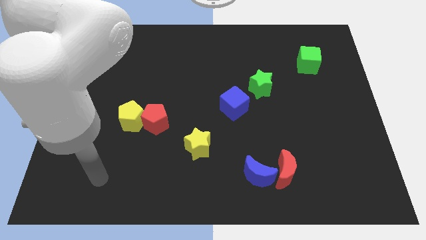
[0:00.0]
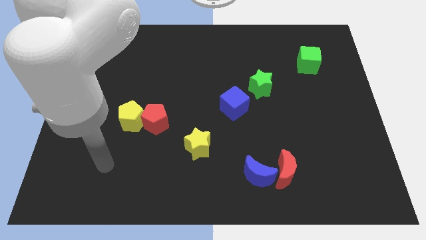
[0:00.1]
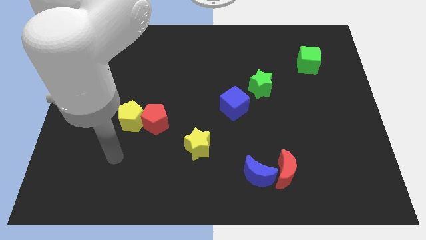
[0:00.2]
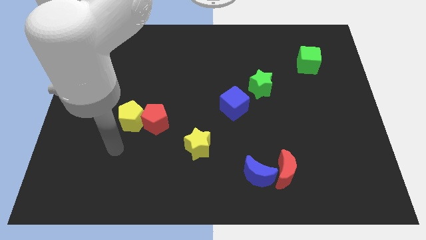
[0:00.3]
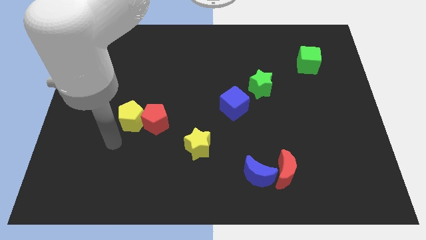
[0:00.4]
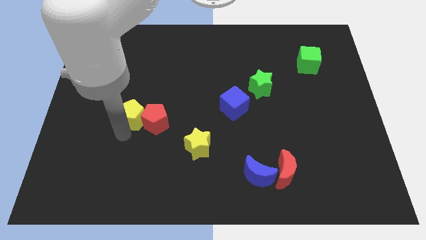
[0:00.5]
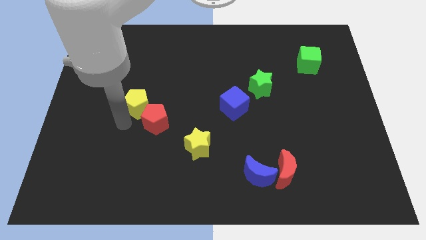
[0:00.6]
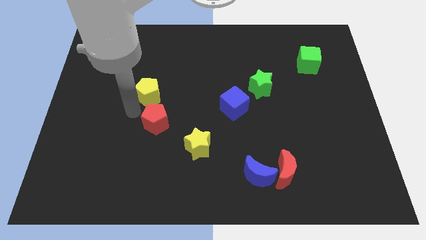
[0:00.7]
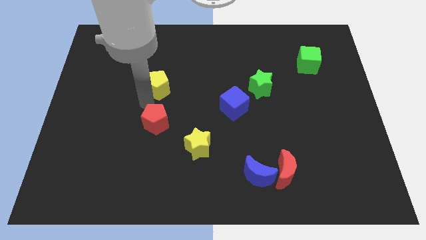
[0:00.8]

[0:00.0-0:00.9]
separate the red pentagon from the yellow pentagon

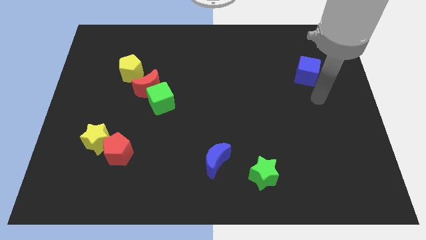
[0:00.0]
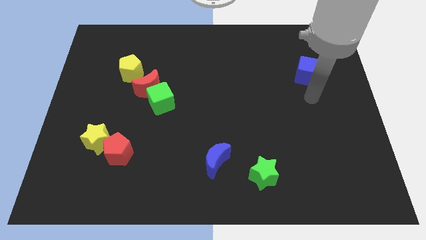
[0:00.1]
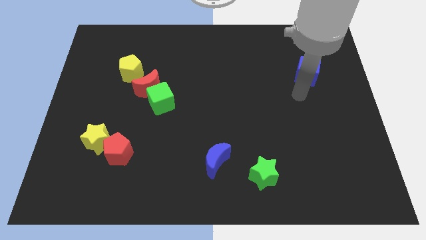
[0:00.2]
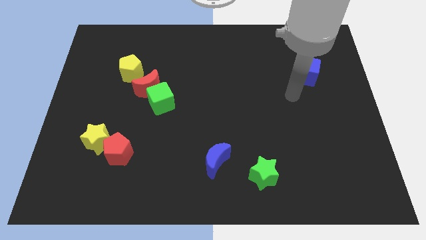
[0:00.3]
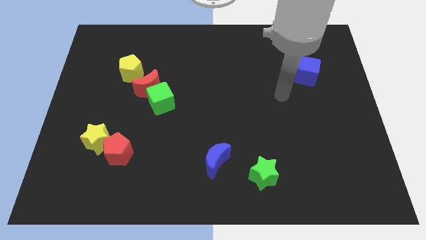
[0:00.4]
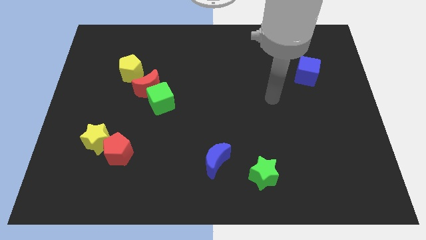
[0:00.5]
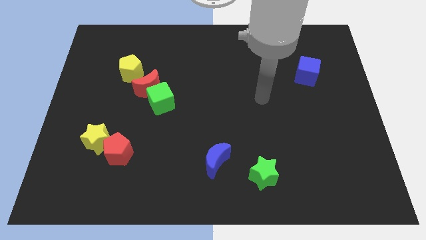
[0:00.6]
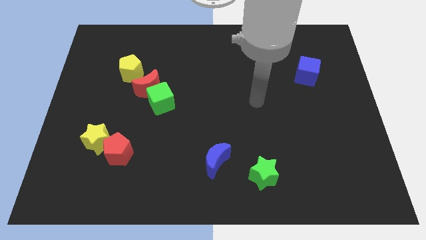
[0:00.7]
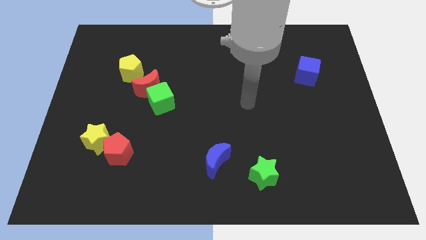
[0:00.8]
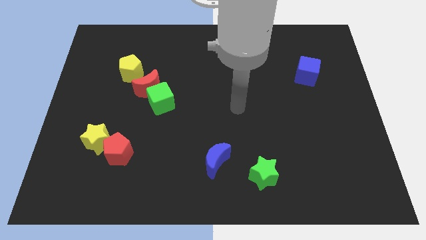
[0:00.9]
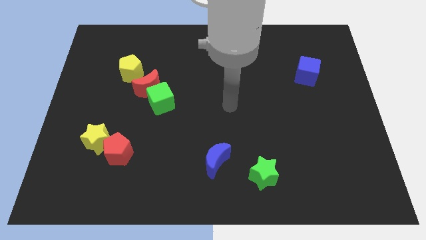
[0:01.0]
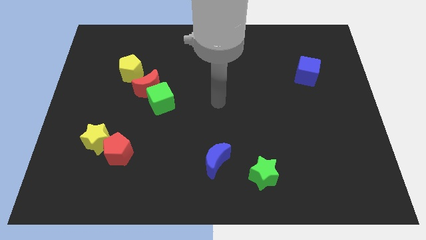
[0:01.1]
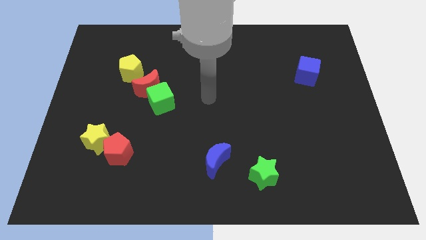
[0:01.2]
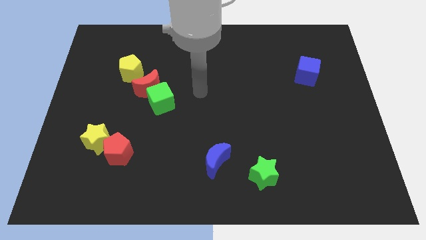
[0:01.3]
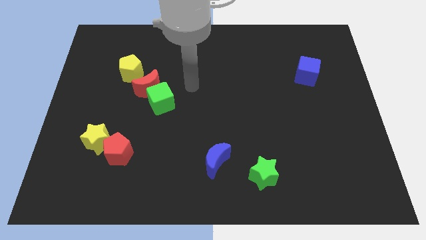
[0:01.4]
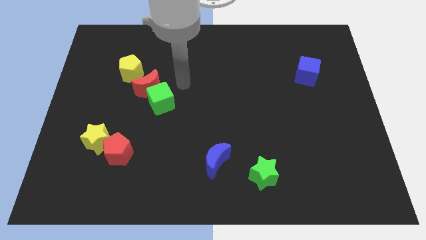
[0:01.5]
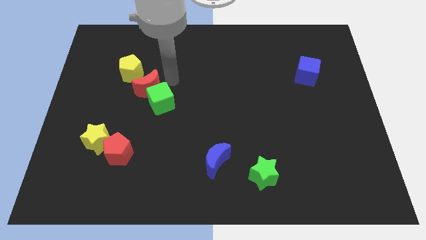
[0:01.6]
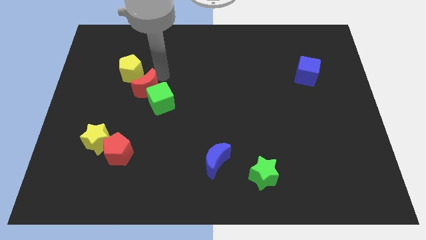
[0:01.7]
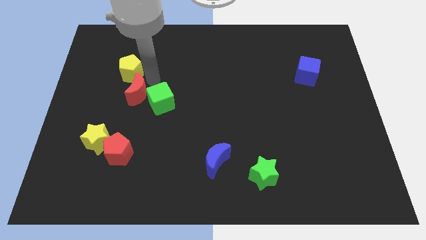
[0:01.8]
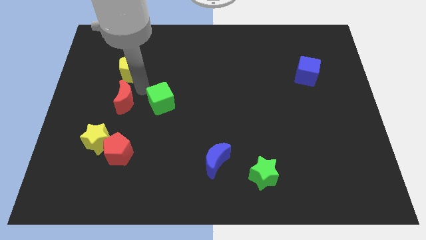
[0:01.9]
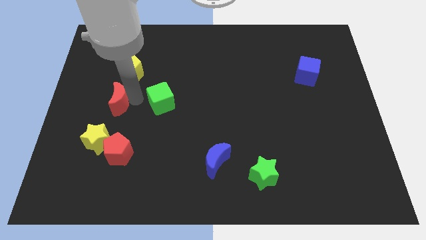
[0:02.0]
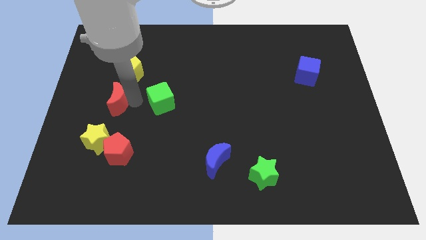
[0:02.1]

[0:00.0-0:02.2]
move the green cube away from the red moon

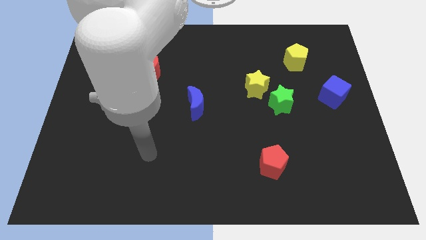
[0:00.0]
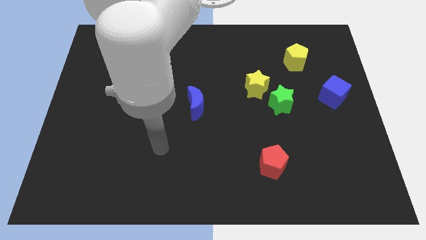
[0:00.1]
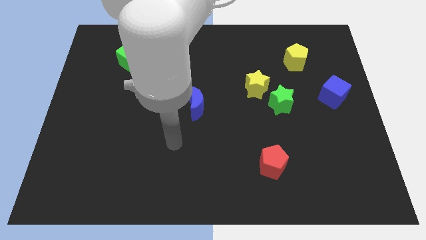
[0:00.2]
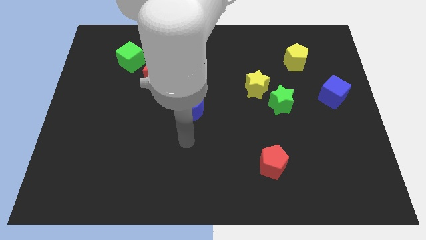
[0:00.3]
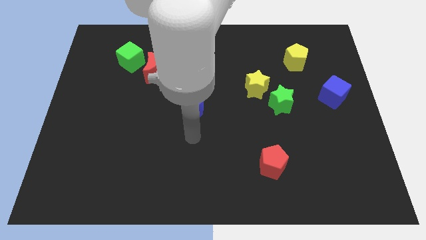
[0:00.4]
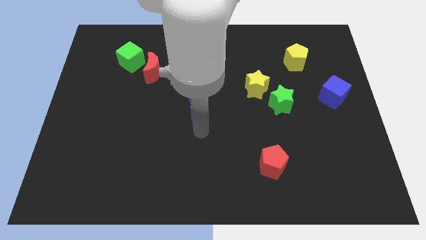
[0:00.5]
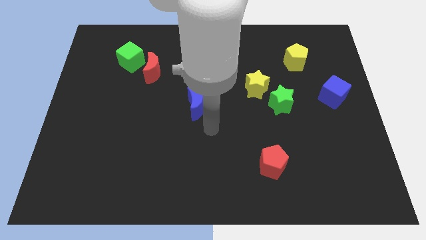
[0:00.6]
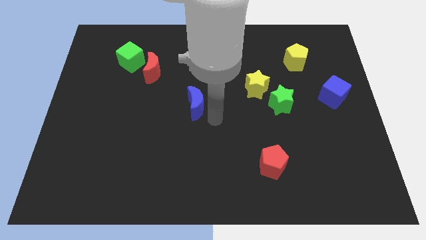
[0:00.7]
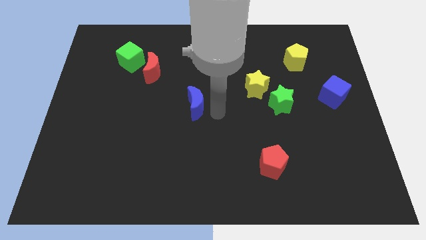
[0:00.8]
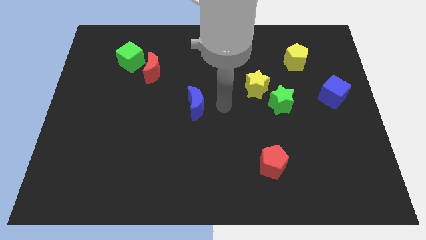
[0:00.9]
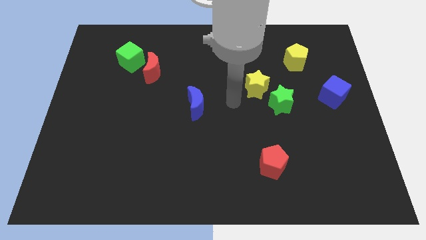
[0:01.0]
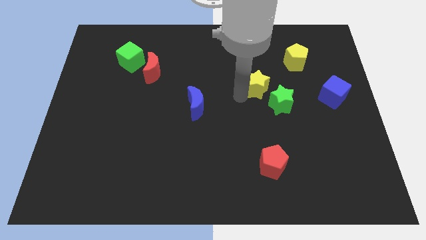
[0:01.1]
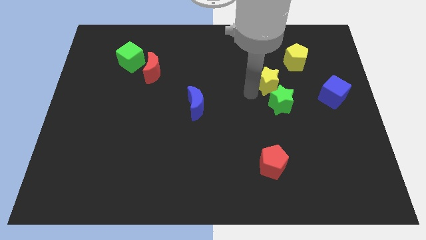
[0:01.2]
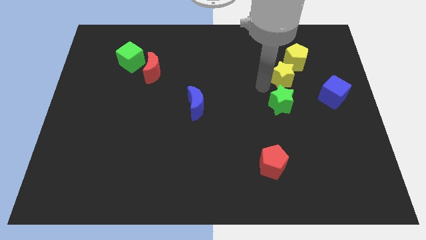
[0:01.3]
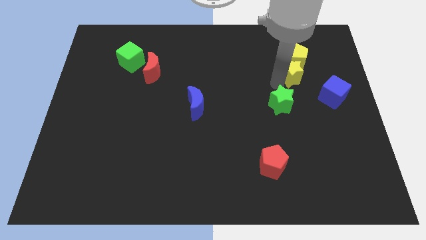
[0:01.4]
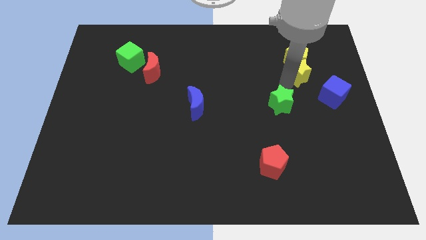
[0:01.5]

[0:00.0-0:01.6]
move the green star away from the yellow star

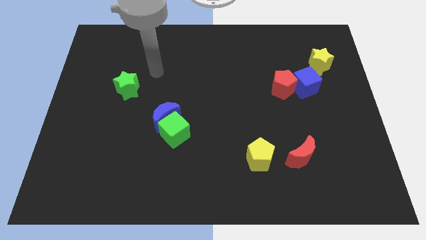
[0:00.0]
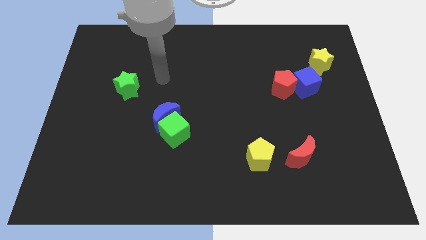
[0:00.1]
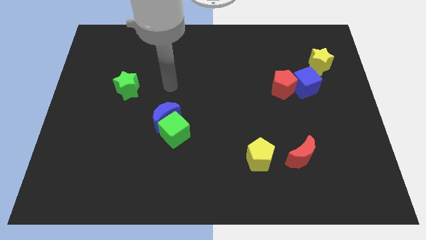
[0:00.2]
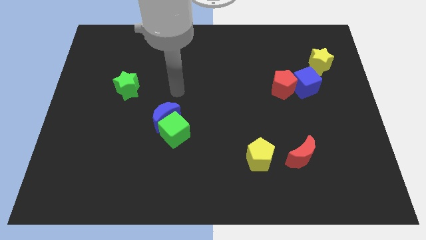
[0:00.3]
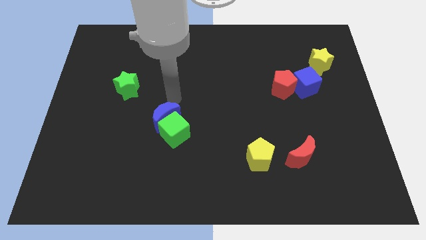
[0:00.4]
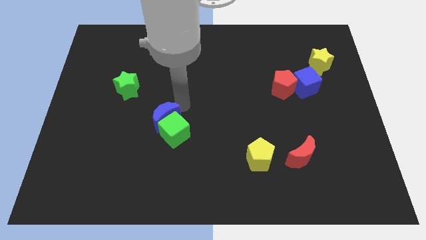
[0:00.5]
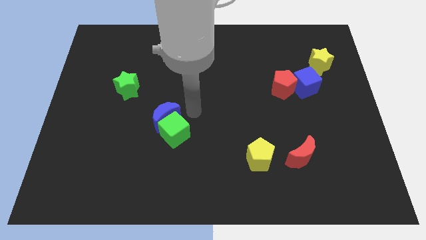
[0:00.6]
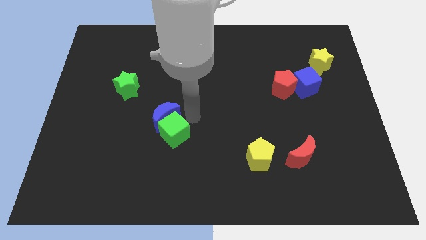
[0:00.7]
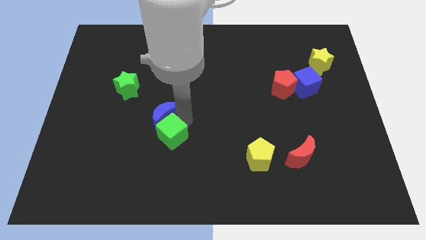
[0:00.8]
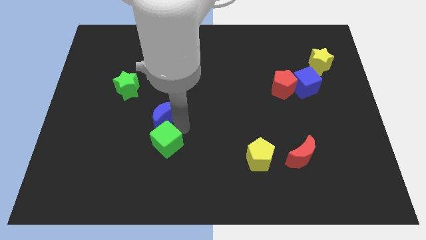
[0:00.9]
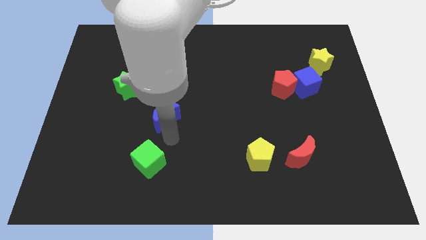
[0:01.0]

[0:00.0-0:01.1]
pull the blue moon apart from the green cube

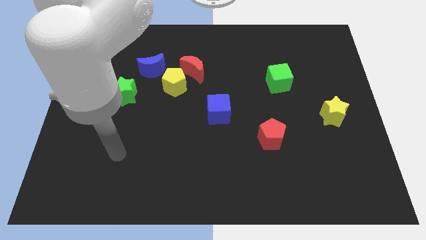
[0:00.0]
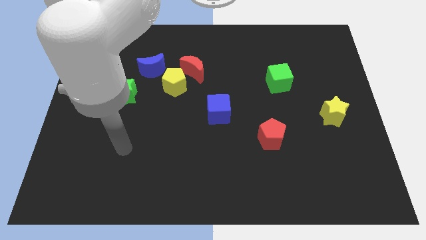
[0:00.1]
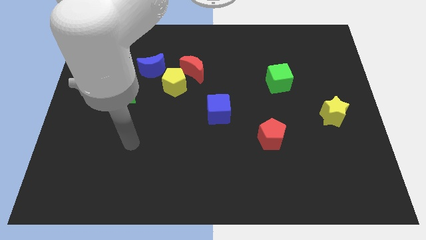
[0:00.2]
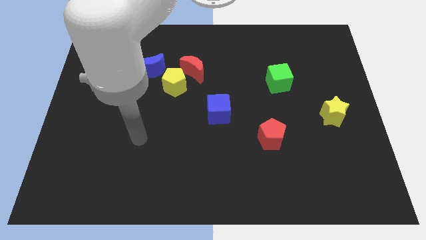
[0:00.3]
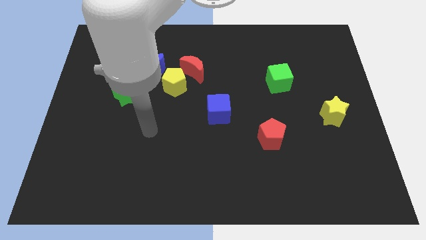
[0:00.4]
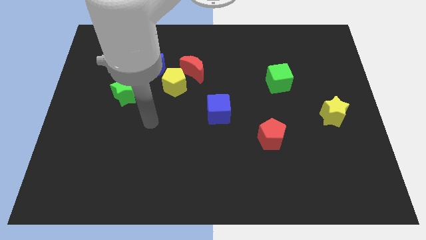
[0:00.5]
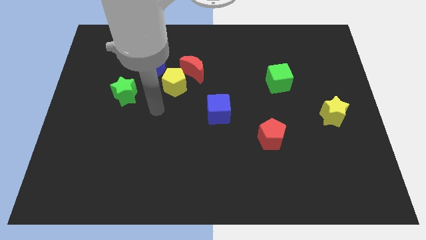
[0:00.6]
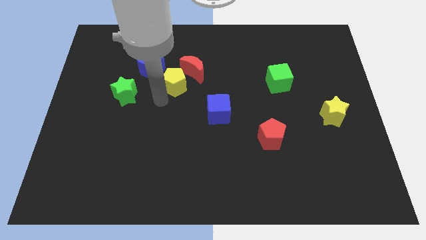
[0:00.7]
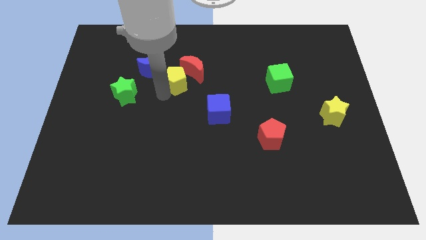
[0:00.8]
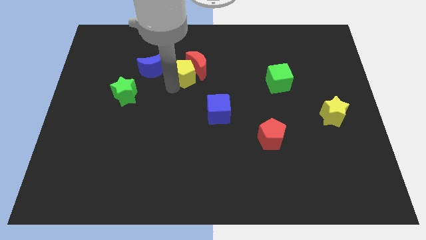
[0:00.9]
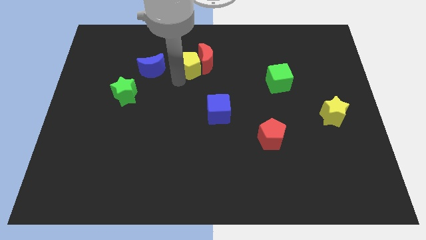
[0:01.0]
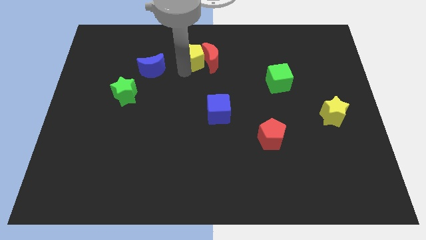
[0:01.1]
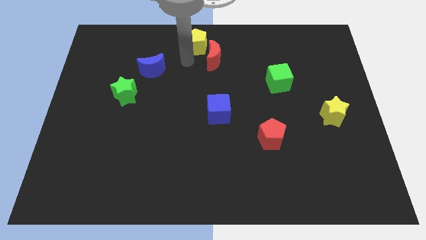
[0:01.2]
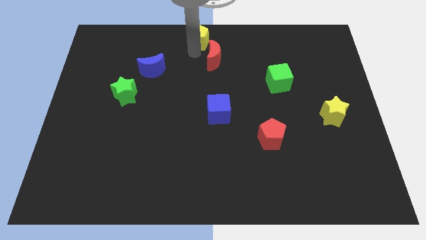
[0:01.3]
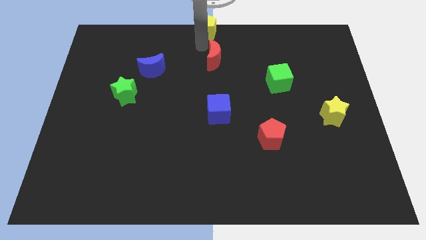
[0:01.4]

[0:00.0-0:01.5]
separate the red moon from the yellow pentagon

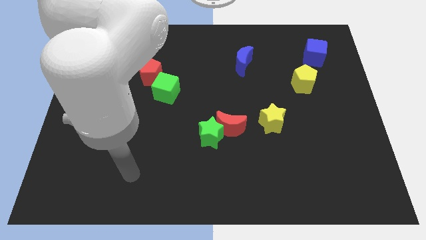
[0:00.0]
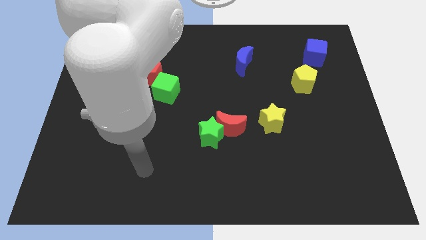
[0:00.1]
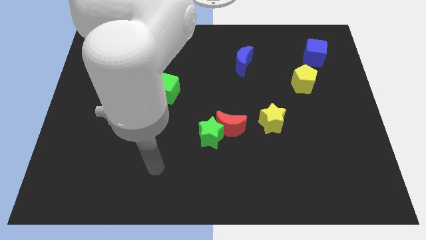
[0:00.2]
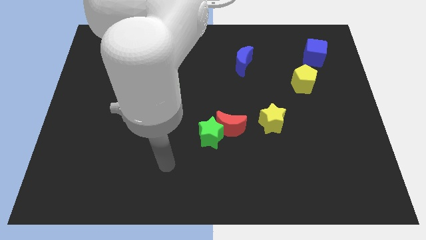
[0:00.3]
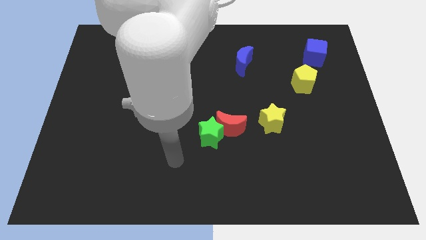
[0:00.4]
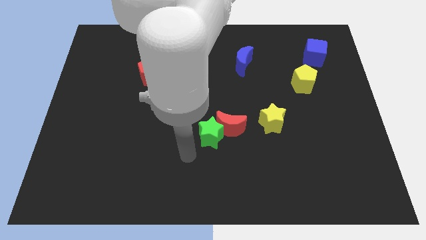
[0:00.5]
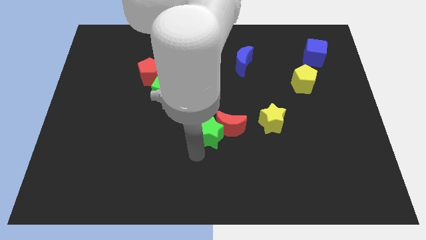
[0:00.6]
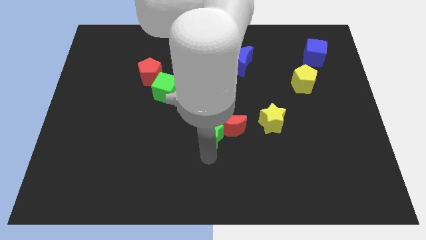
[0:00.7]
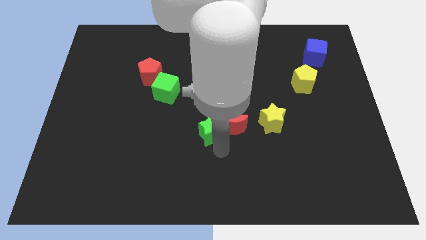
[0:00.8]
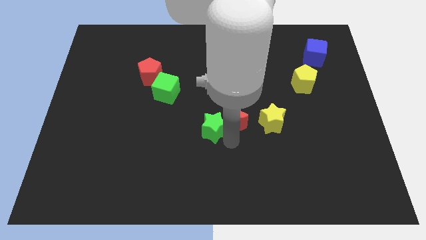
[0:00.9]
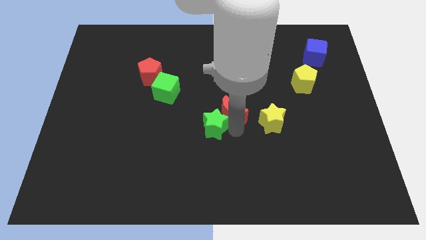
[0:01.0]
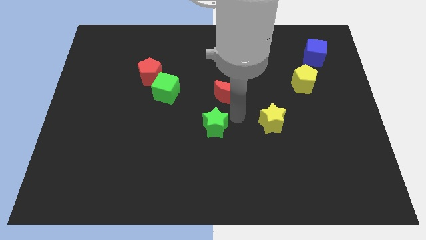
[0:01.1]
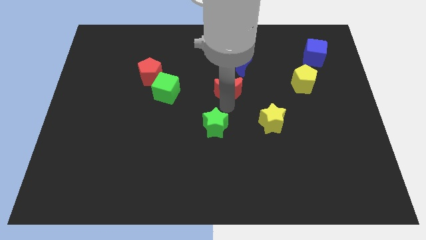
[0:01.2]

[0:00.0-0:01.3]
pull the green star apart from the red moon

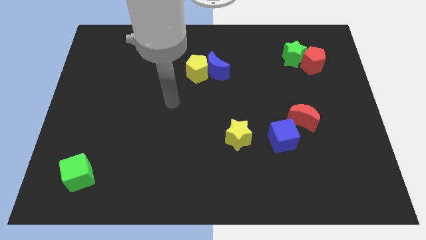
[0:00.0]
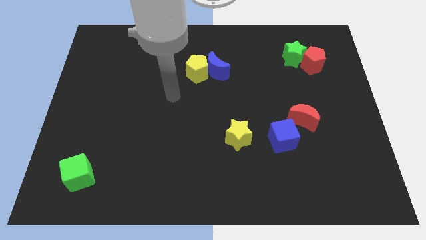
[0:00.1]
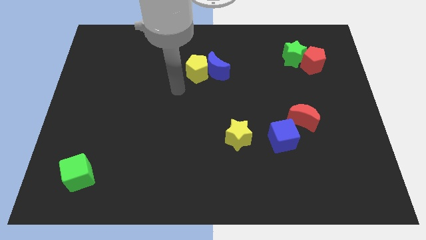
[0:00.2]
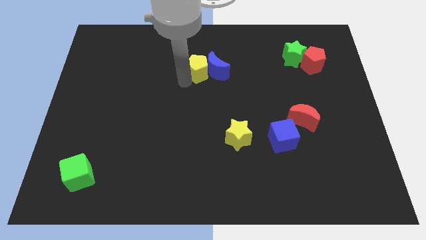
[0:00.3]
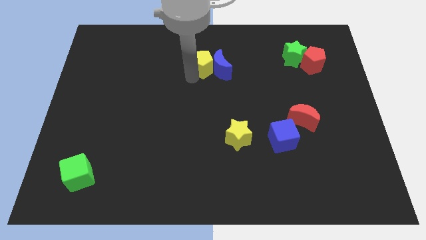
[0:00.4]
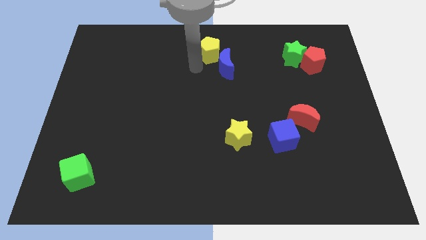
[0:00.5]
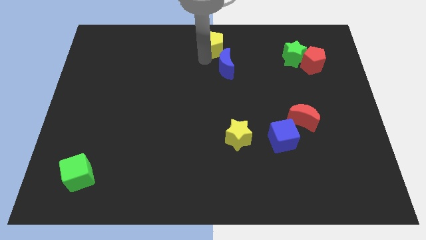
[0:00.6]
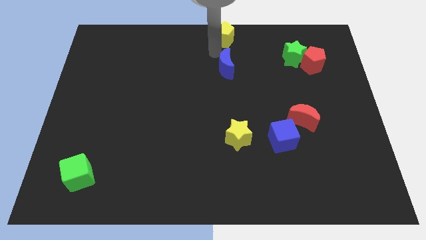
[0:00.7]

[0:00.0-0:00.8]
pull the blue moon apart from the yellow pentagon
